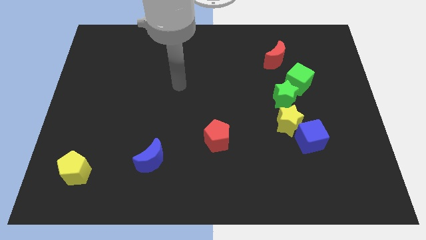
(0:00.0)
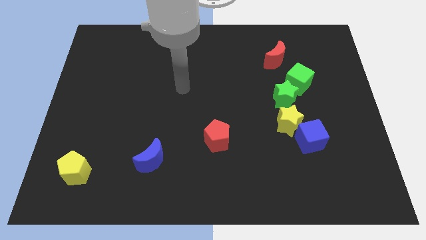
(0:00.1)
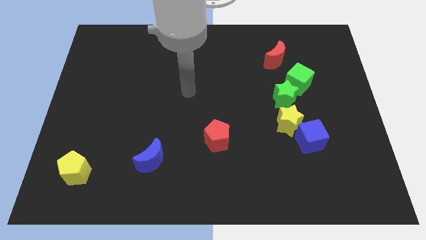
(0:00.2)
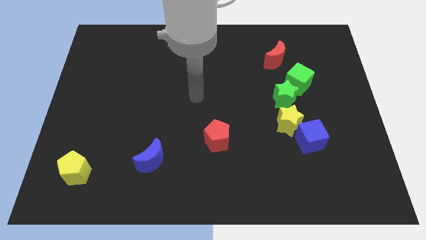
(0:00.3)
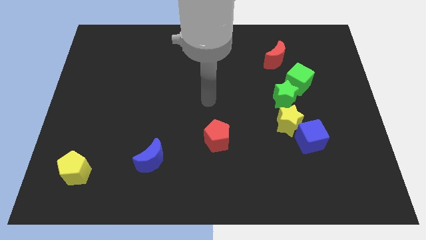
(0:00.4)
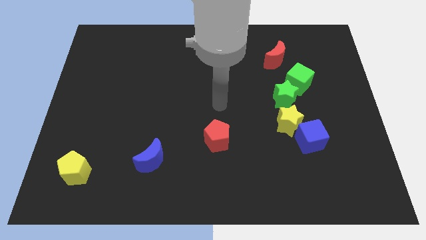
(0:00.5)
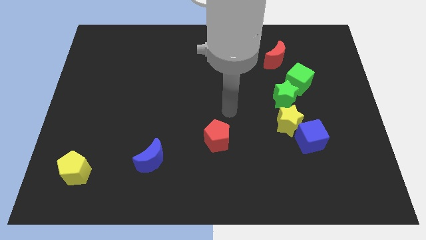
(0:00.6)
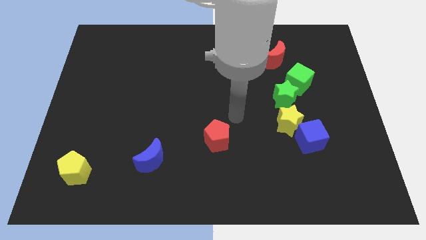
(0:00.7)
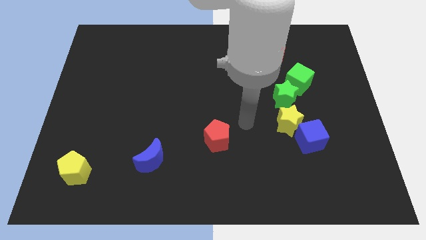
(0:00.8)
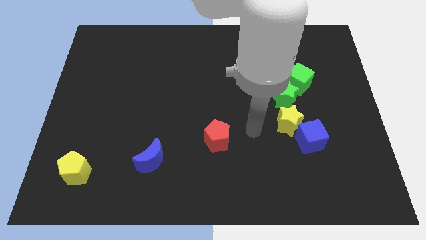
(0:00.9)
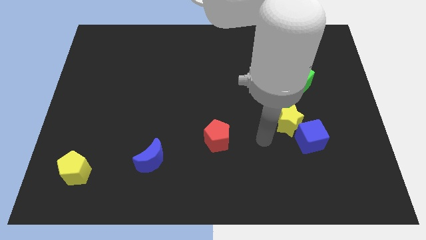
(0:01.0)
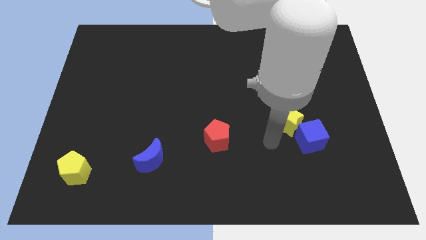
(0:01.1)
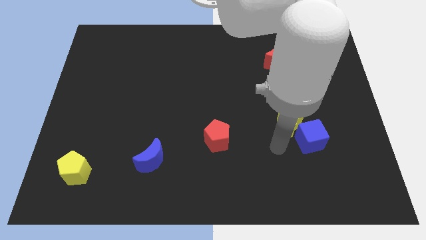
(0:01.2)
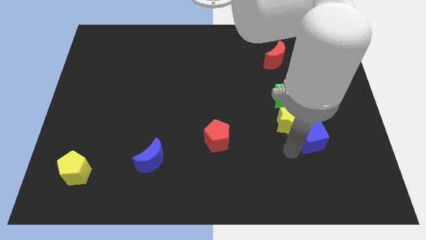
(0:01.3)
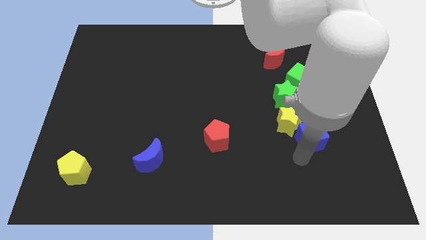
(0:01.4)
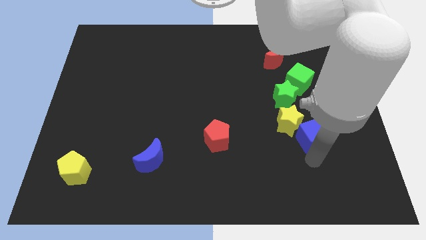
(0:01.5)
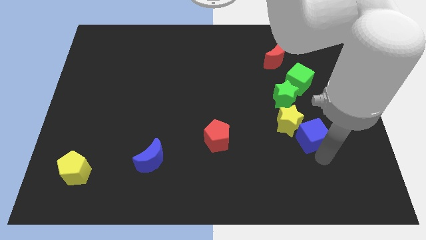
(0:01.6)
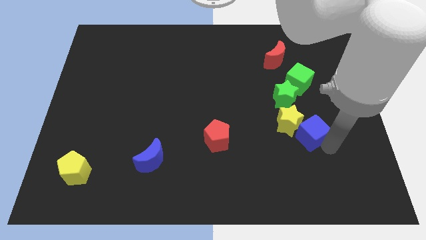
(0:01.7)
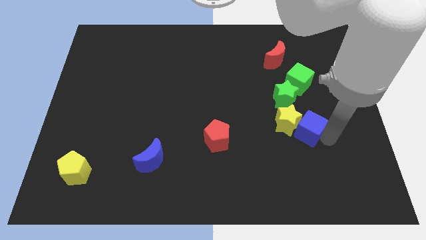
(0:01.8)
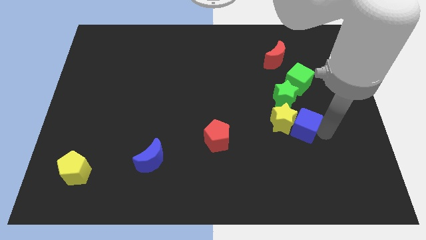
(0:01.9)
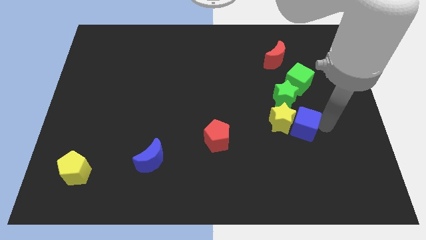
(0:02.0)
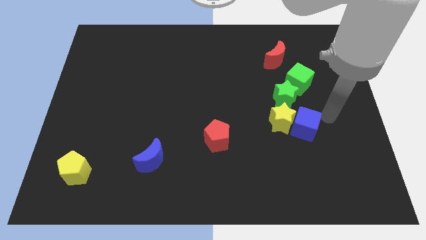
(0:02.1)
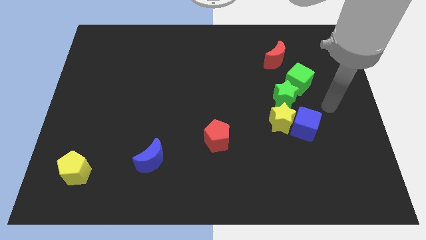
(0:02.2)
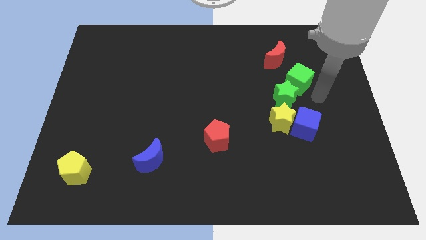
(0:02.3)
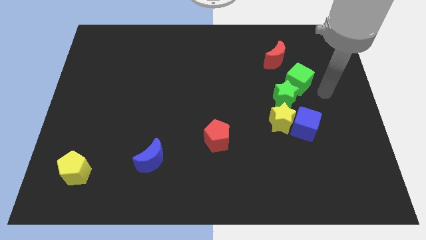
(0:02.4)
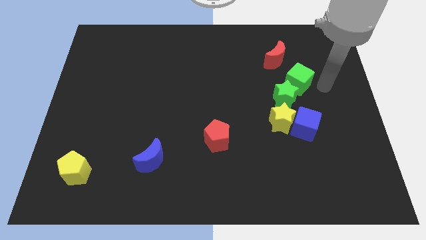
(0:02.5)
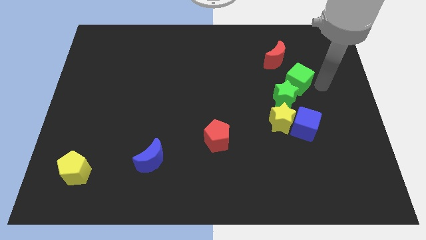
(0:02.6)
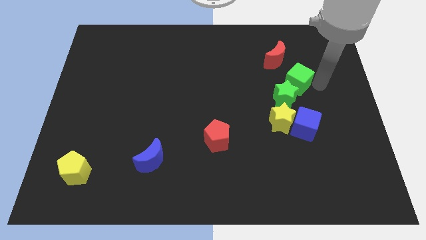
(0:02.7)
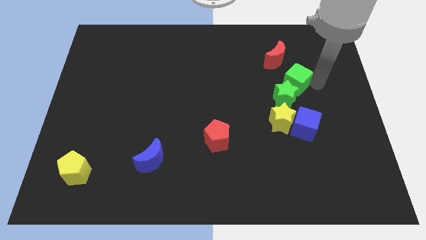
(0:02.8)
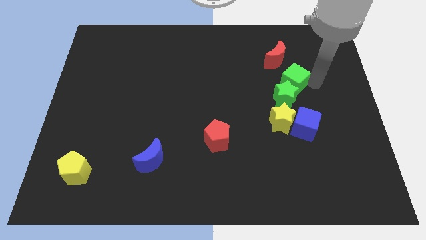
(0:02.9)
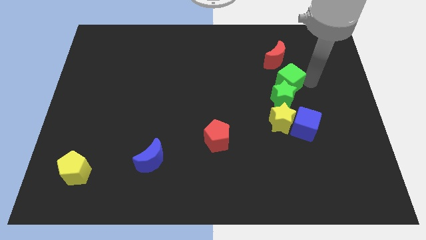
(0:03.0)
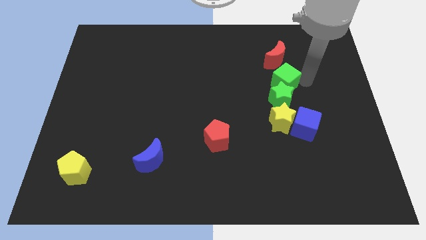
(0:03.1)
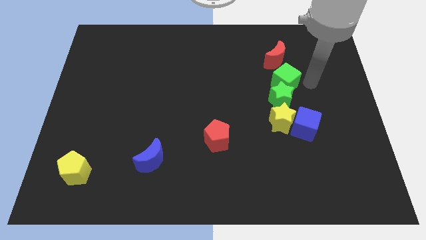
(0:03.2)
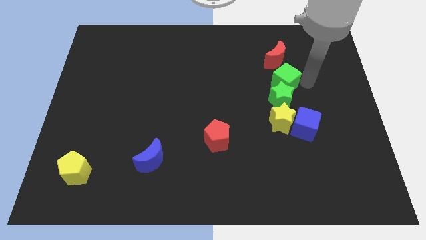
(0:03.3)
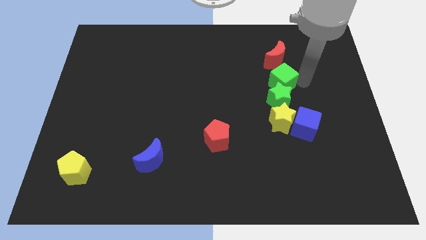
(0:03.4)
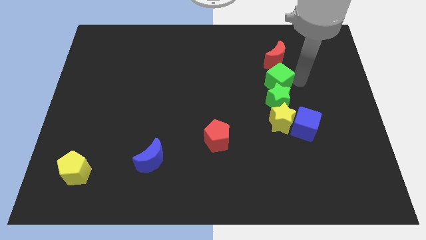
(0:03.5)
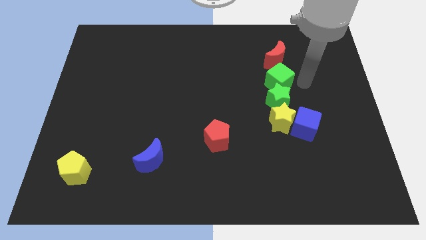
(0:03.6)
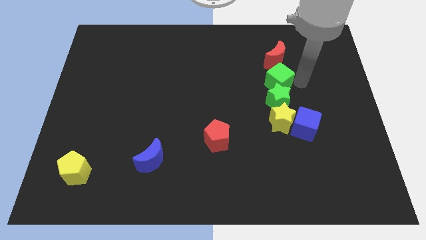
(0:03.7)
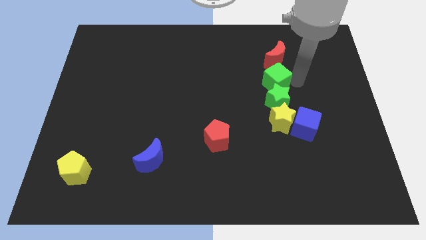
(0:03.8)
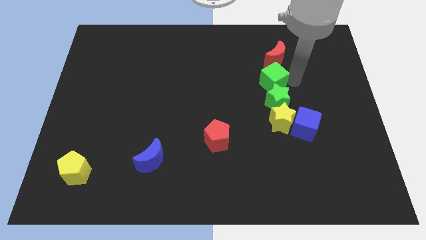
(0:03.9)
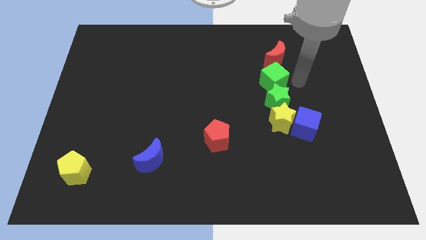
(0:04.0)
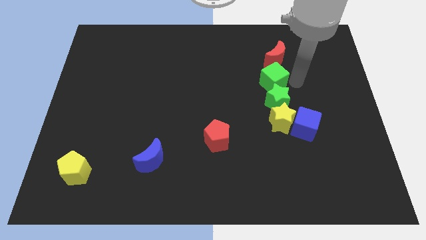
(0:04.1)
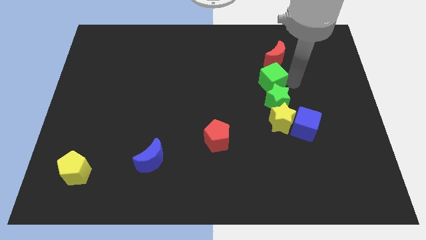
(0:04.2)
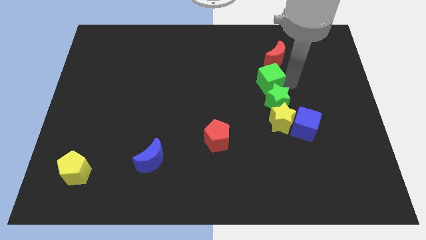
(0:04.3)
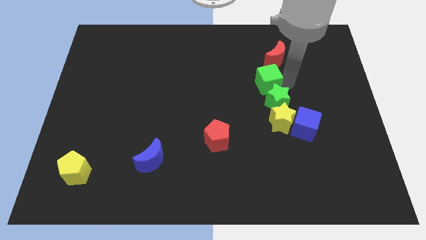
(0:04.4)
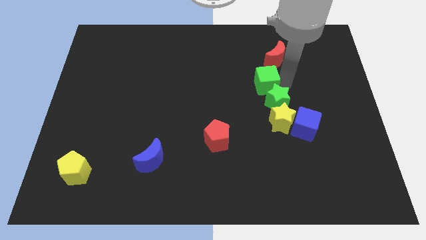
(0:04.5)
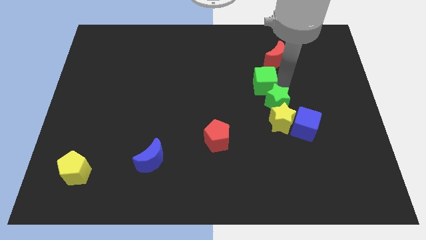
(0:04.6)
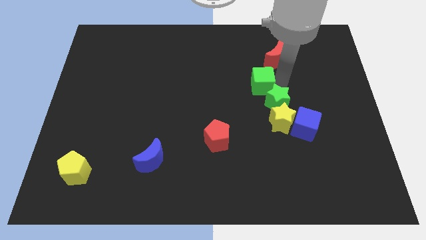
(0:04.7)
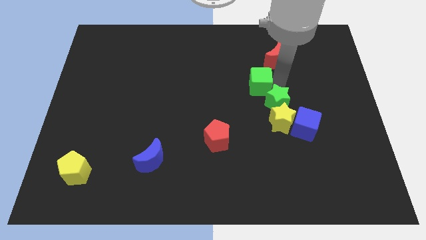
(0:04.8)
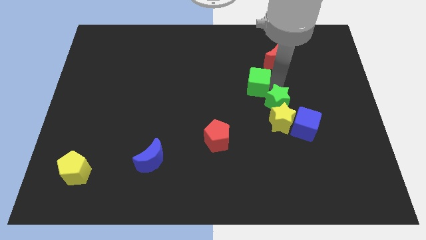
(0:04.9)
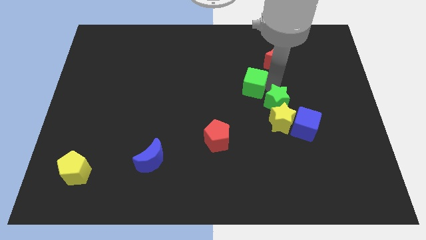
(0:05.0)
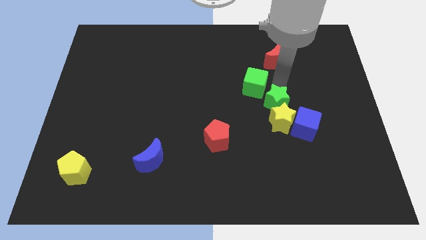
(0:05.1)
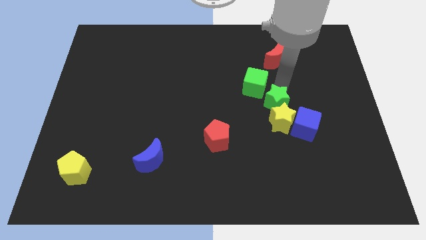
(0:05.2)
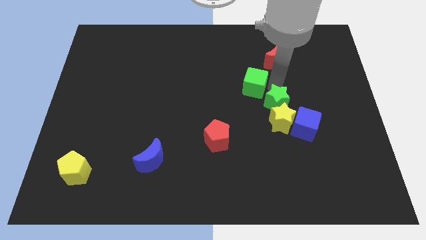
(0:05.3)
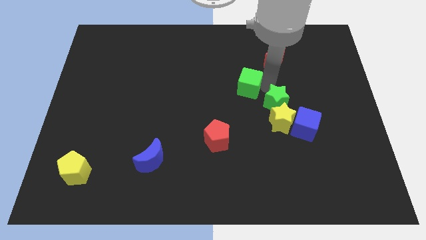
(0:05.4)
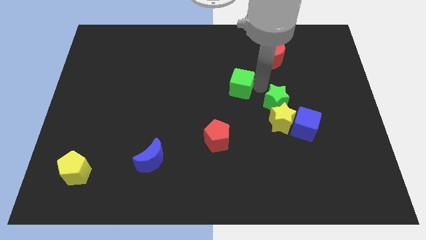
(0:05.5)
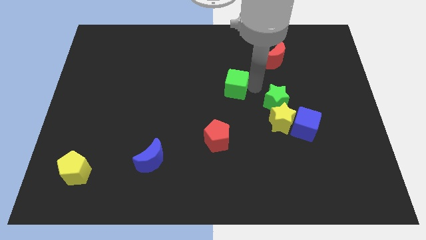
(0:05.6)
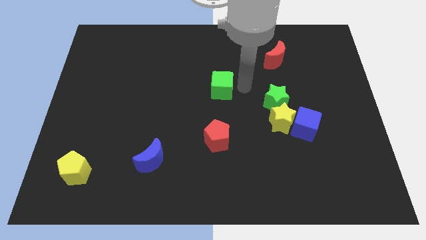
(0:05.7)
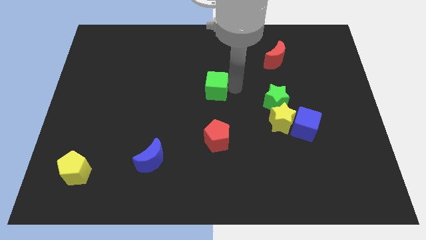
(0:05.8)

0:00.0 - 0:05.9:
move the green cube left

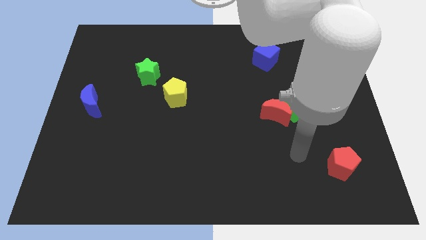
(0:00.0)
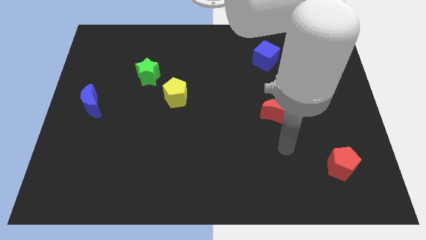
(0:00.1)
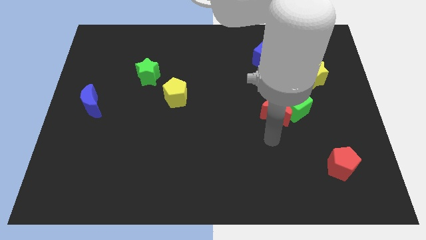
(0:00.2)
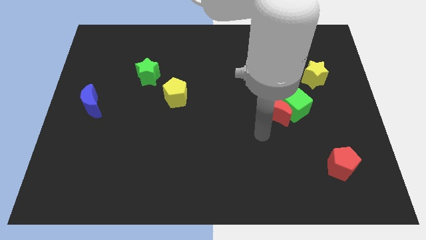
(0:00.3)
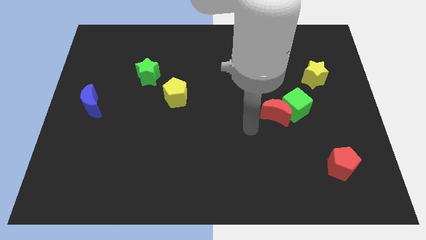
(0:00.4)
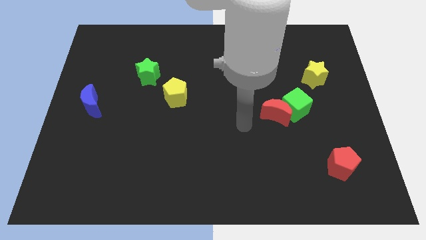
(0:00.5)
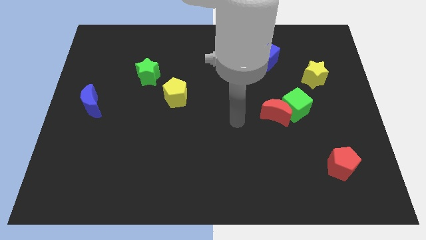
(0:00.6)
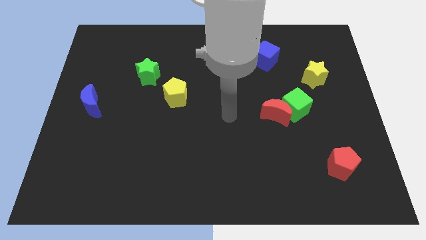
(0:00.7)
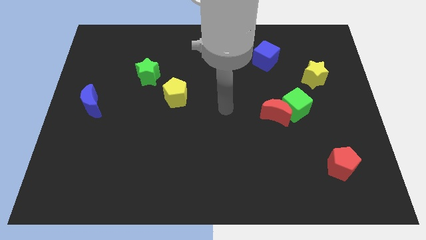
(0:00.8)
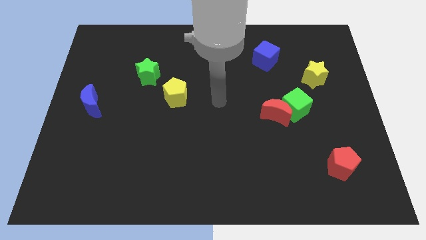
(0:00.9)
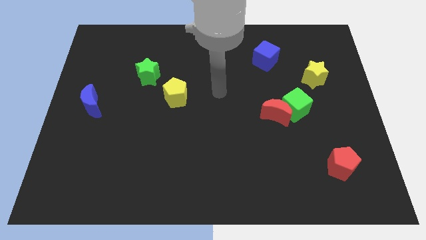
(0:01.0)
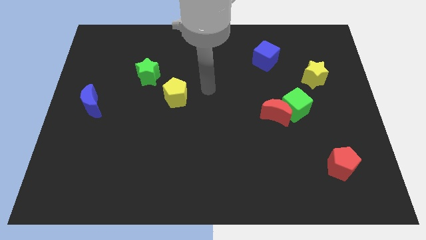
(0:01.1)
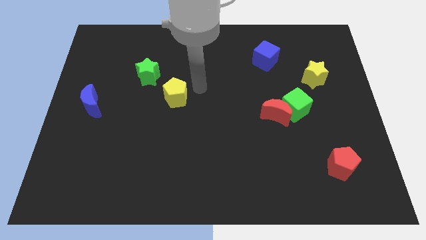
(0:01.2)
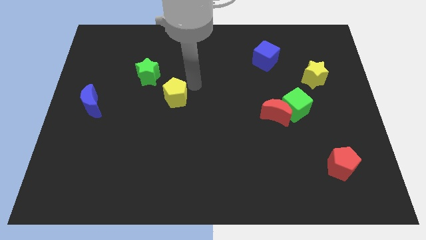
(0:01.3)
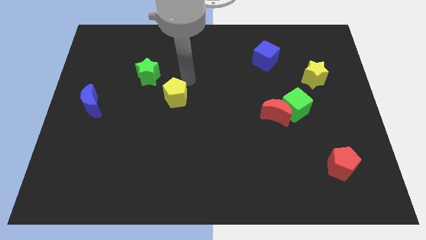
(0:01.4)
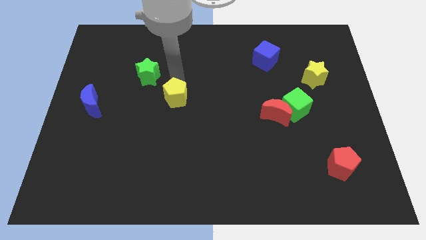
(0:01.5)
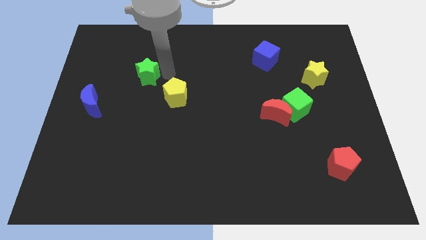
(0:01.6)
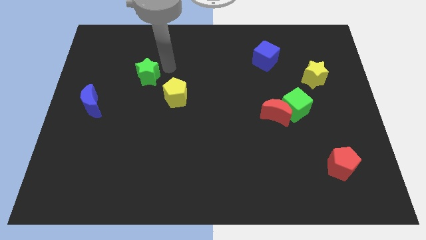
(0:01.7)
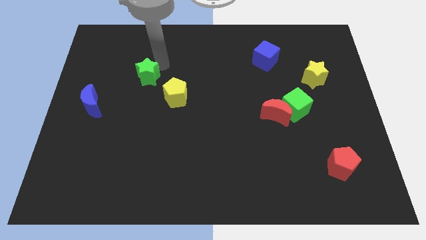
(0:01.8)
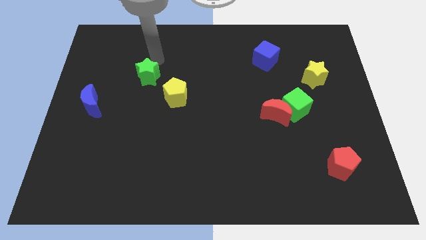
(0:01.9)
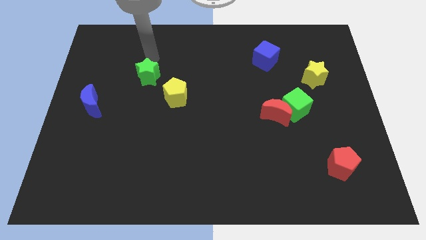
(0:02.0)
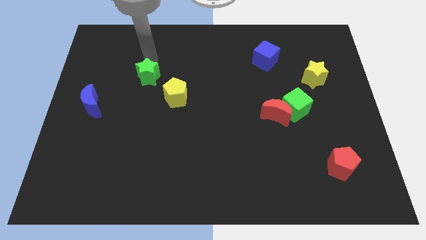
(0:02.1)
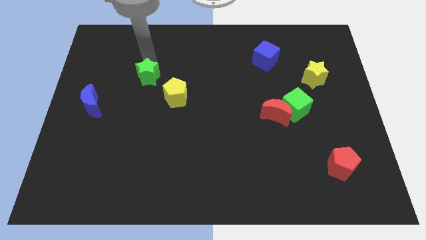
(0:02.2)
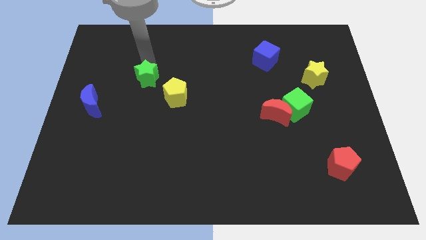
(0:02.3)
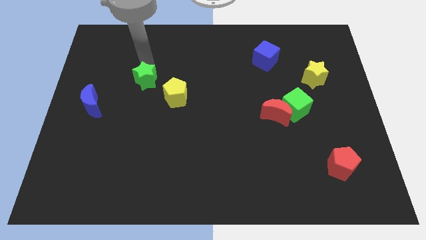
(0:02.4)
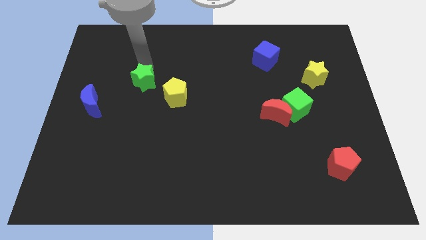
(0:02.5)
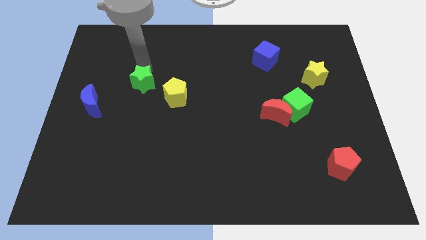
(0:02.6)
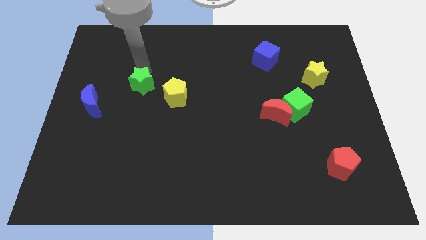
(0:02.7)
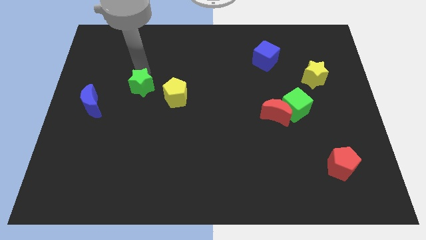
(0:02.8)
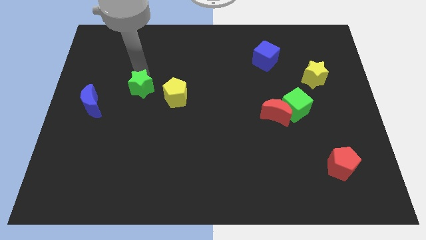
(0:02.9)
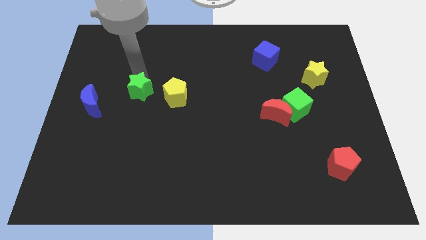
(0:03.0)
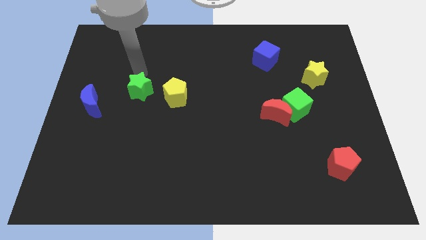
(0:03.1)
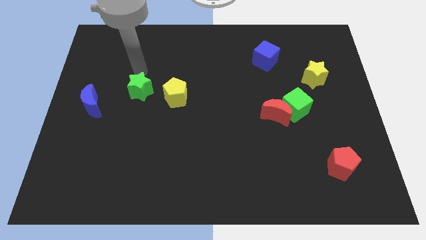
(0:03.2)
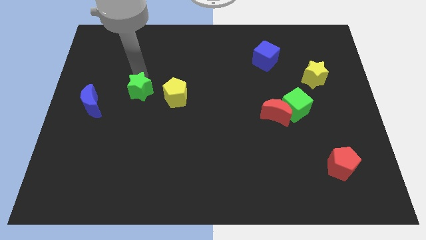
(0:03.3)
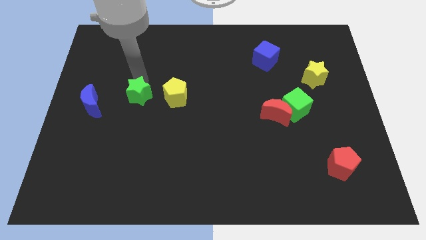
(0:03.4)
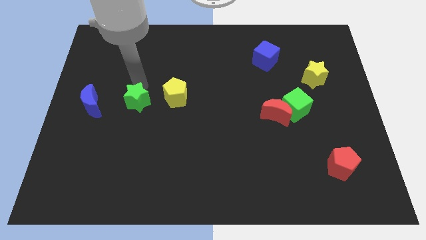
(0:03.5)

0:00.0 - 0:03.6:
slightly slide the green star down
